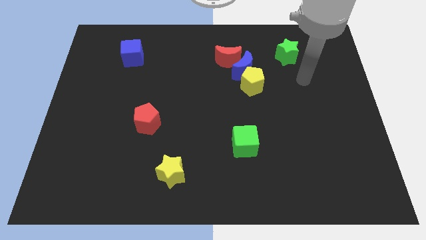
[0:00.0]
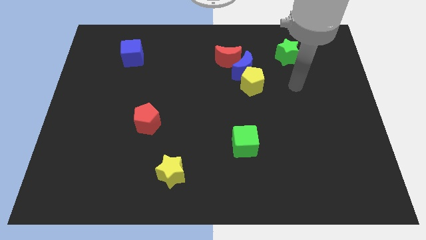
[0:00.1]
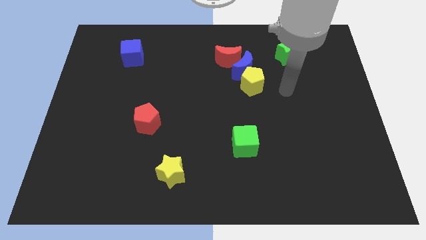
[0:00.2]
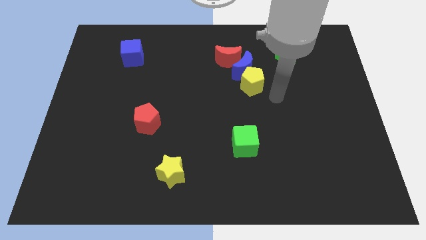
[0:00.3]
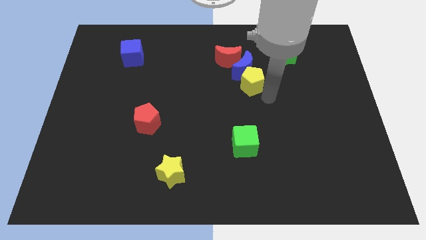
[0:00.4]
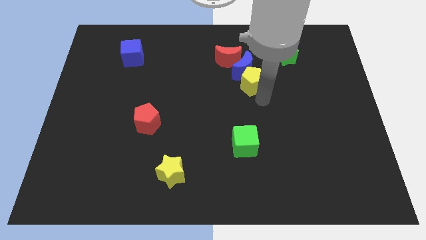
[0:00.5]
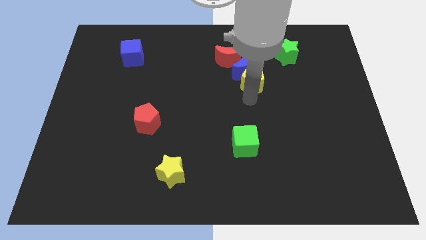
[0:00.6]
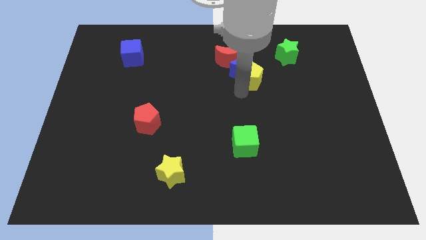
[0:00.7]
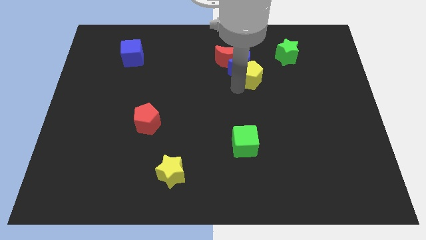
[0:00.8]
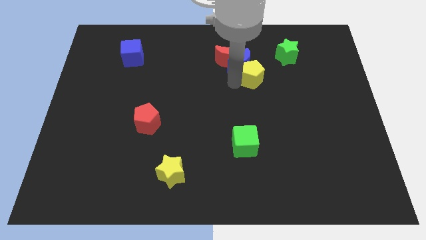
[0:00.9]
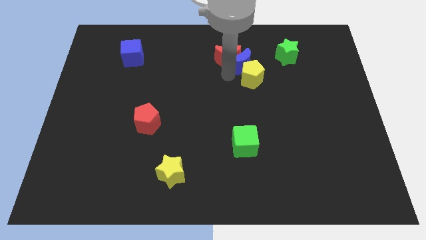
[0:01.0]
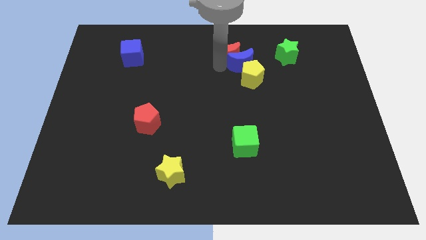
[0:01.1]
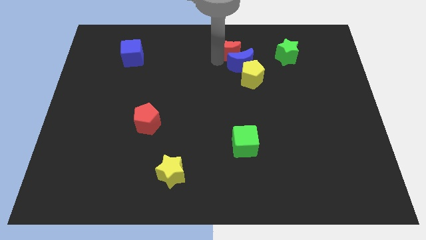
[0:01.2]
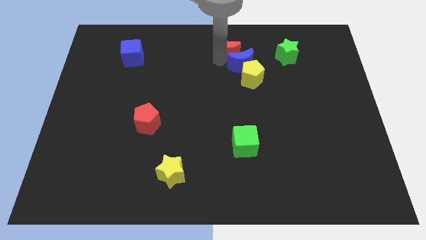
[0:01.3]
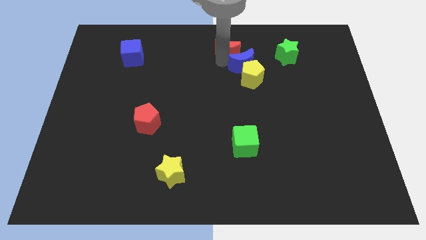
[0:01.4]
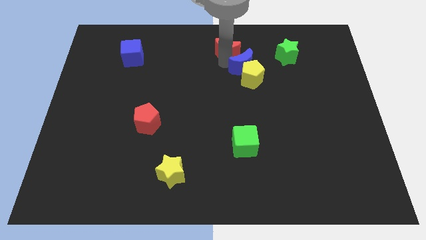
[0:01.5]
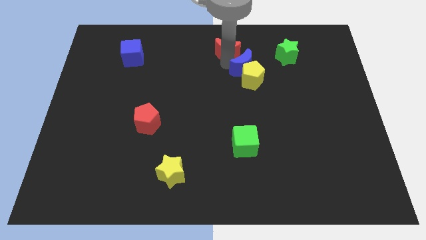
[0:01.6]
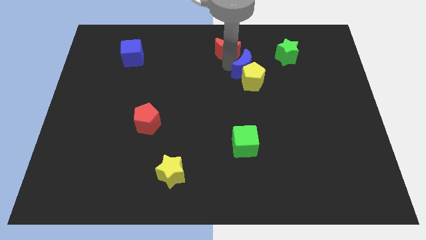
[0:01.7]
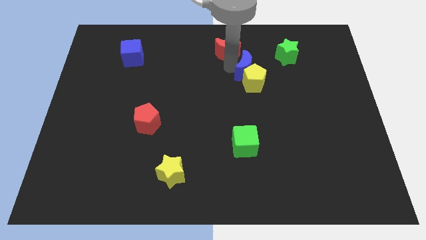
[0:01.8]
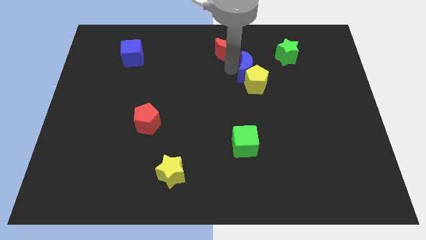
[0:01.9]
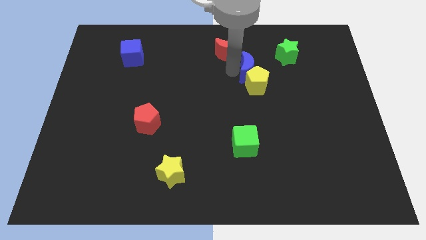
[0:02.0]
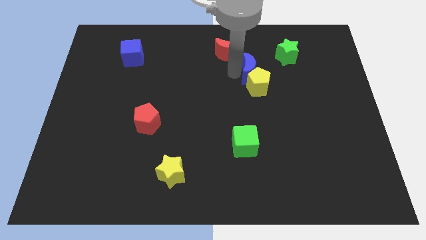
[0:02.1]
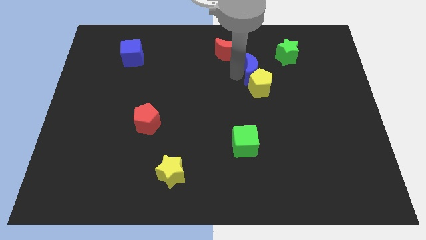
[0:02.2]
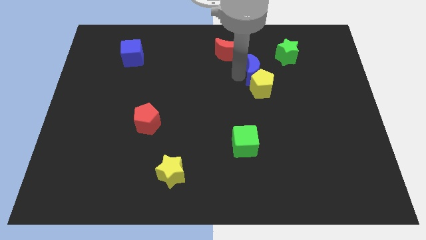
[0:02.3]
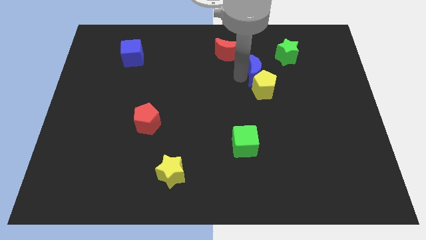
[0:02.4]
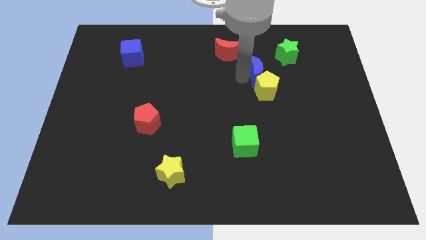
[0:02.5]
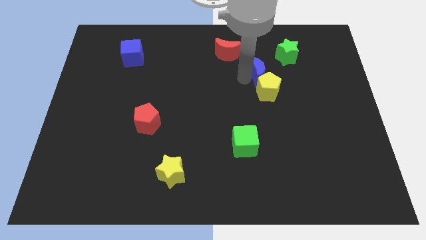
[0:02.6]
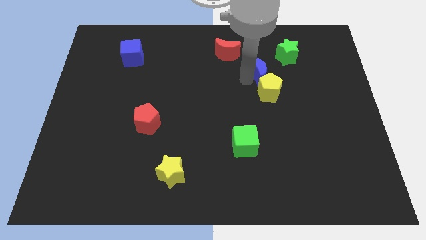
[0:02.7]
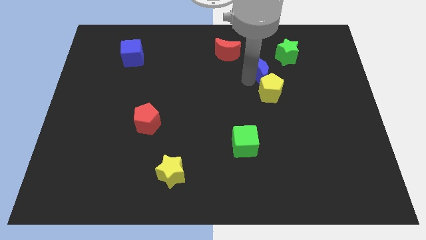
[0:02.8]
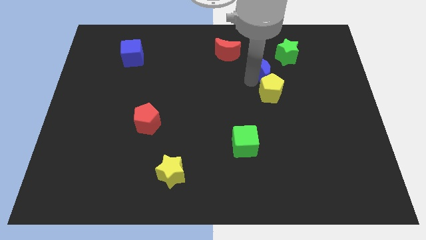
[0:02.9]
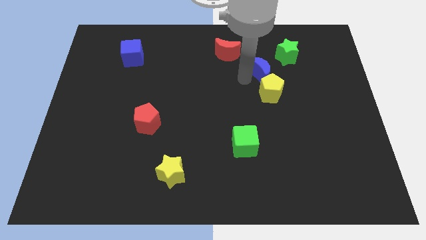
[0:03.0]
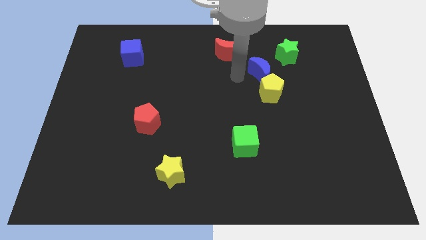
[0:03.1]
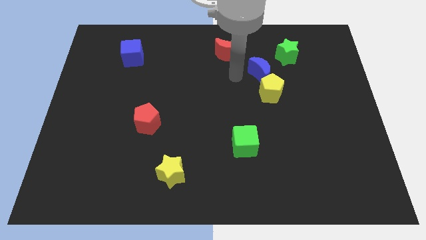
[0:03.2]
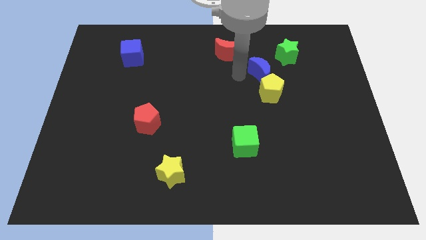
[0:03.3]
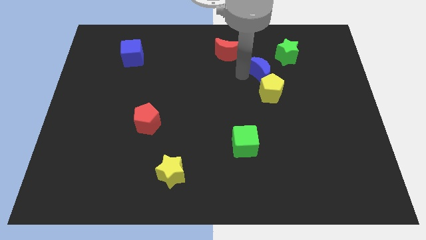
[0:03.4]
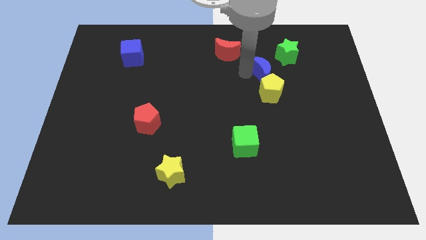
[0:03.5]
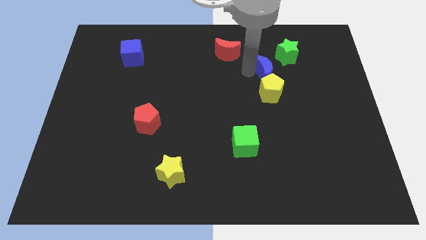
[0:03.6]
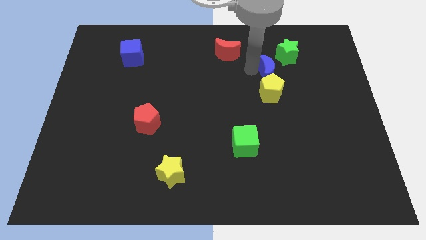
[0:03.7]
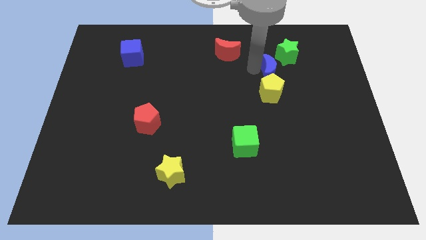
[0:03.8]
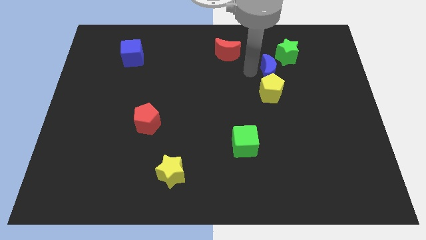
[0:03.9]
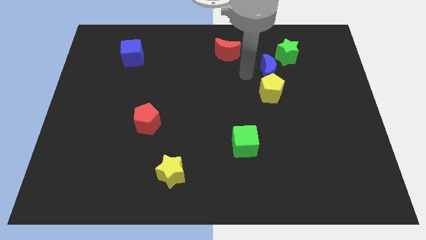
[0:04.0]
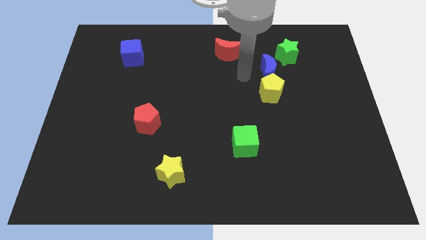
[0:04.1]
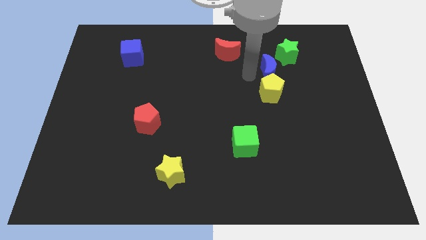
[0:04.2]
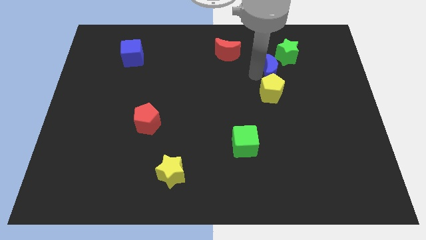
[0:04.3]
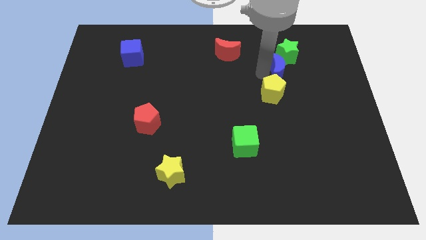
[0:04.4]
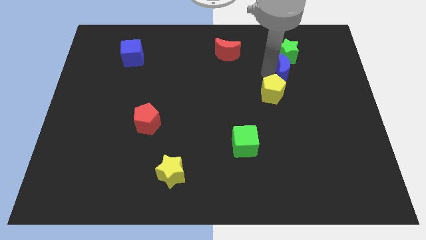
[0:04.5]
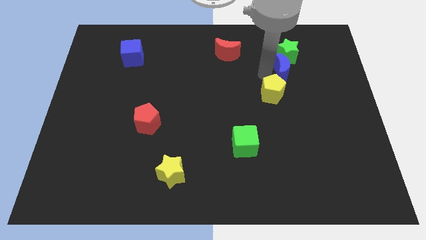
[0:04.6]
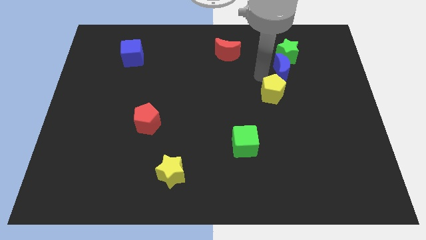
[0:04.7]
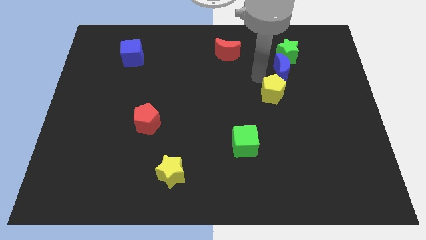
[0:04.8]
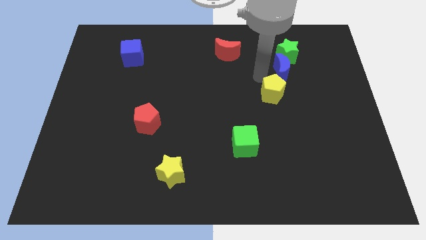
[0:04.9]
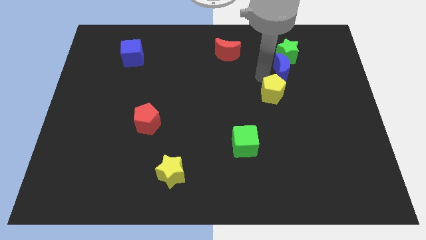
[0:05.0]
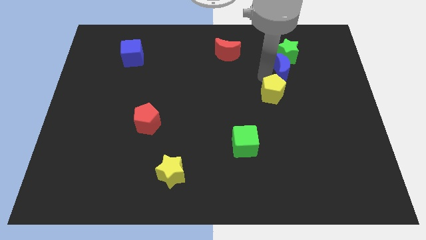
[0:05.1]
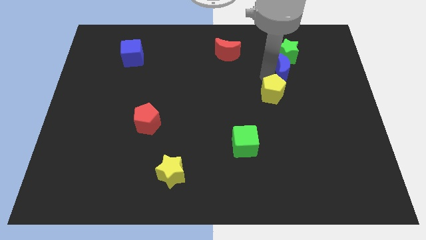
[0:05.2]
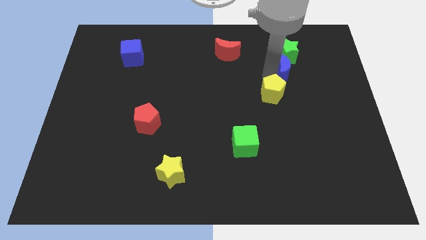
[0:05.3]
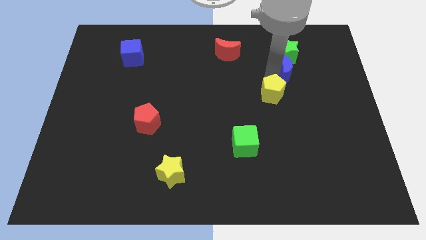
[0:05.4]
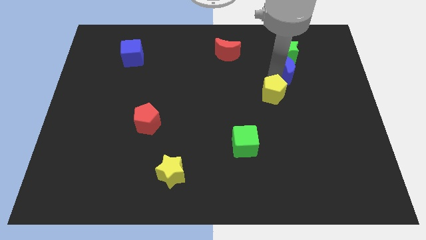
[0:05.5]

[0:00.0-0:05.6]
move the blue moon to the bottom right of the green star

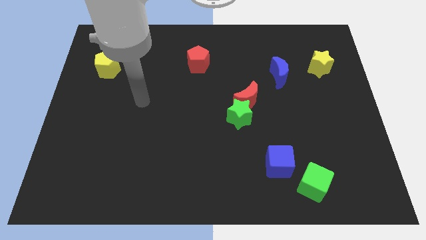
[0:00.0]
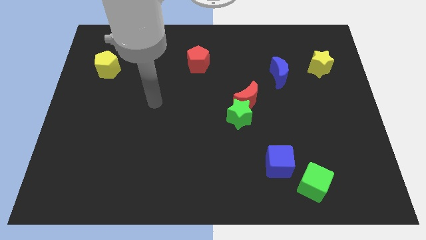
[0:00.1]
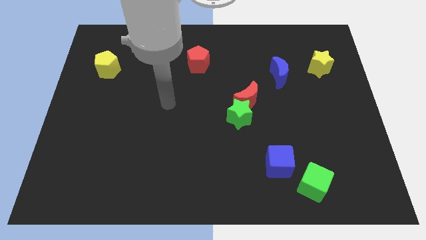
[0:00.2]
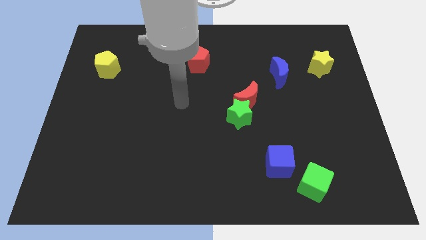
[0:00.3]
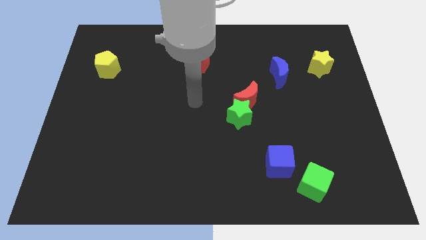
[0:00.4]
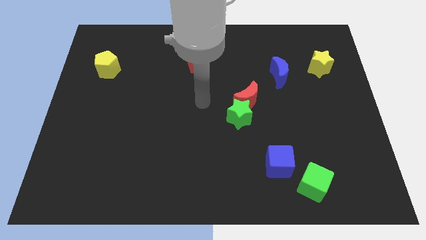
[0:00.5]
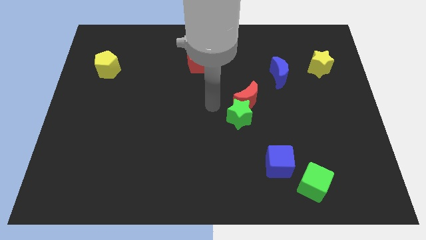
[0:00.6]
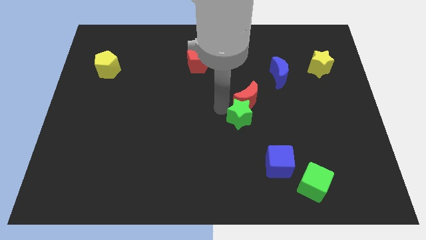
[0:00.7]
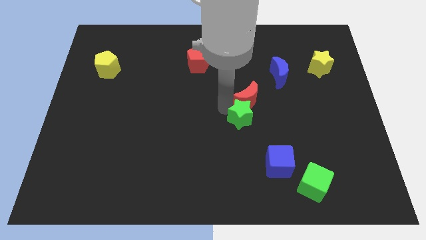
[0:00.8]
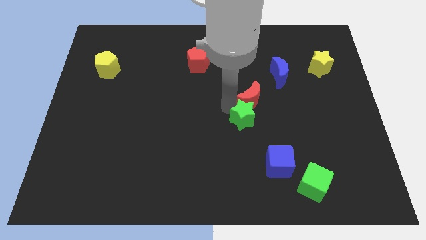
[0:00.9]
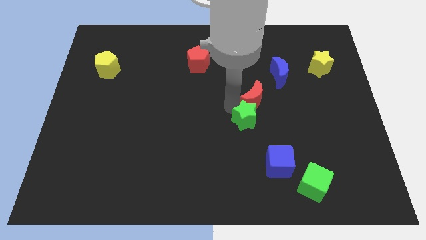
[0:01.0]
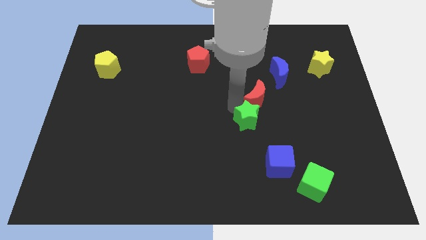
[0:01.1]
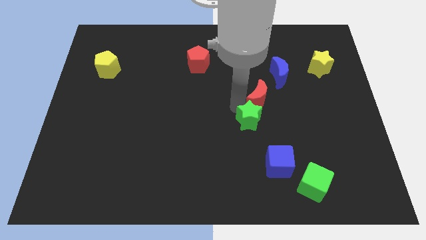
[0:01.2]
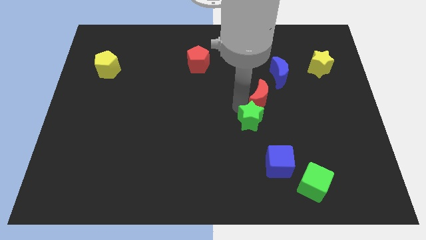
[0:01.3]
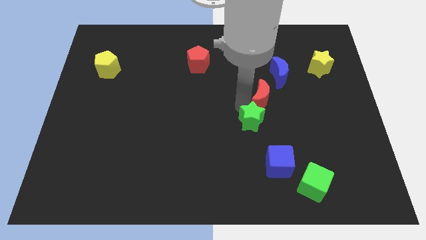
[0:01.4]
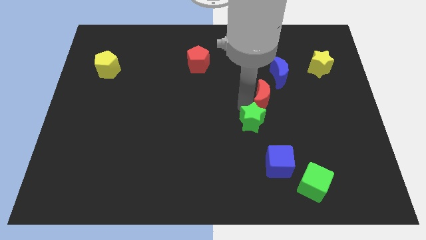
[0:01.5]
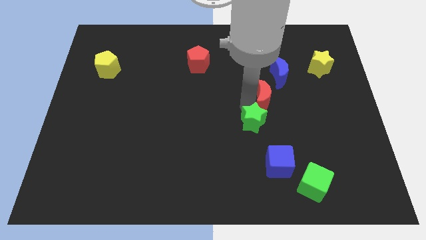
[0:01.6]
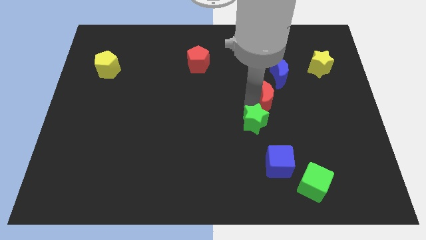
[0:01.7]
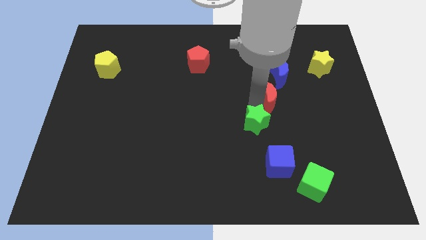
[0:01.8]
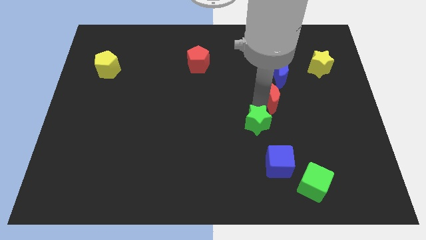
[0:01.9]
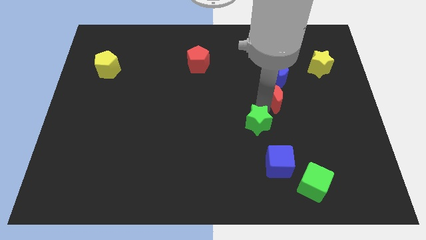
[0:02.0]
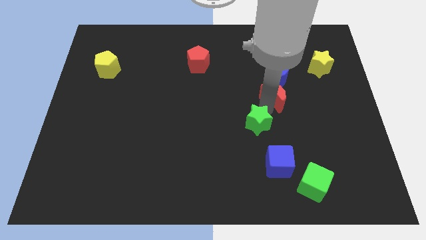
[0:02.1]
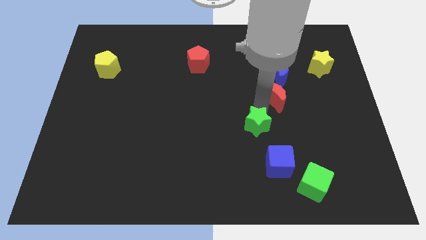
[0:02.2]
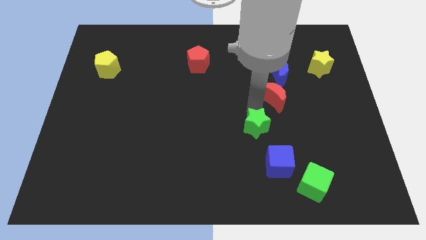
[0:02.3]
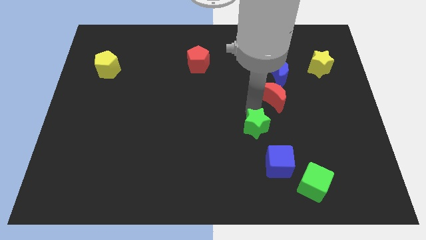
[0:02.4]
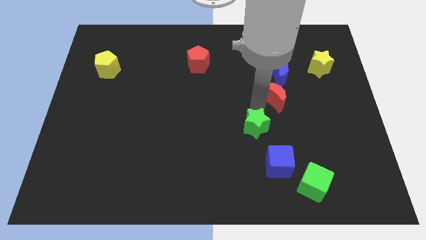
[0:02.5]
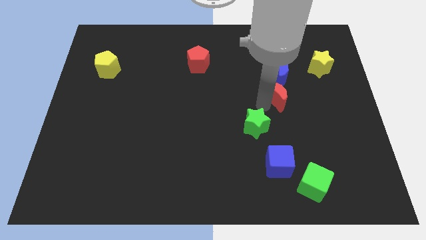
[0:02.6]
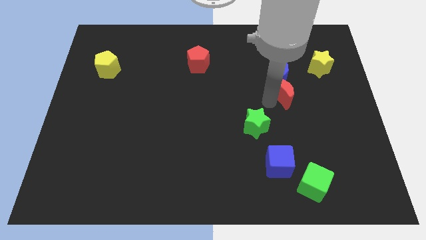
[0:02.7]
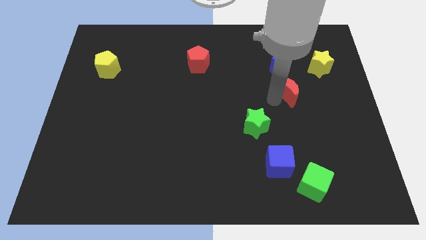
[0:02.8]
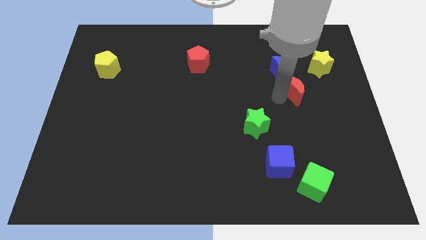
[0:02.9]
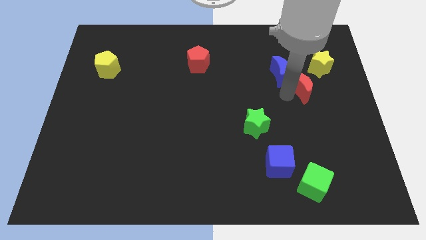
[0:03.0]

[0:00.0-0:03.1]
put the red moon right of the blue moon
